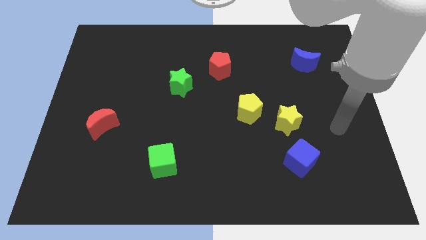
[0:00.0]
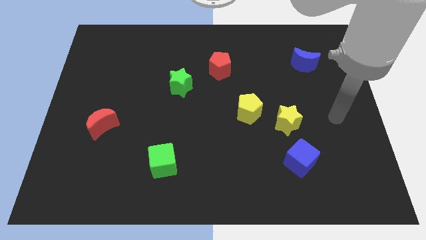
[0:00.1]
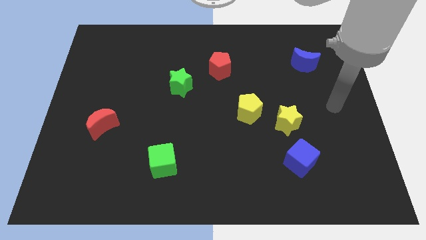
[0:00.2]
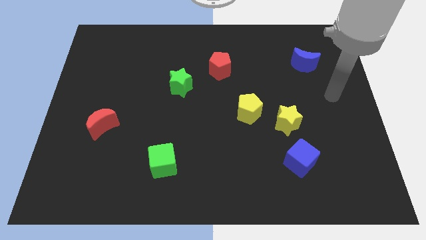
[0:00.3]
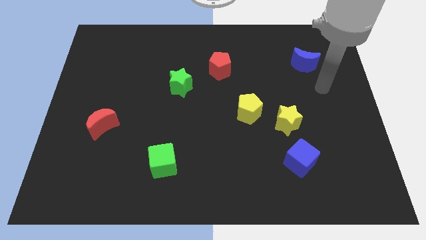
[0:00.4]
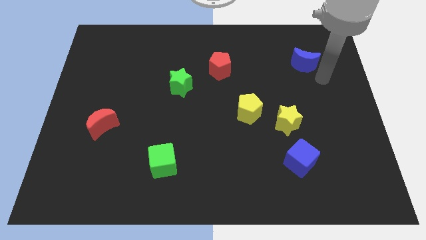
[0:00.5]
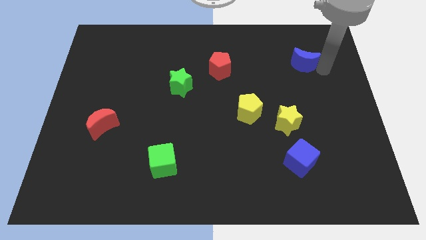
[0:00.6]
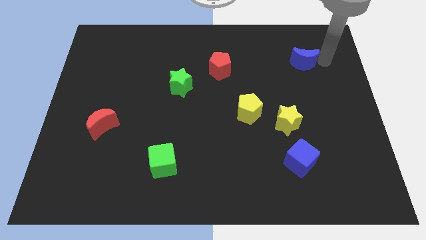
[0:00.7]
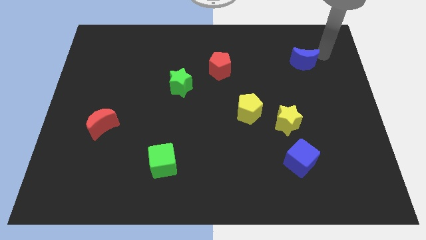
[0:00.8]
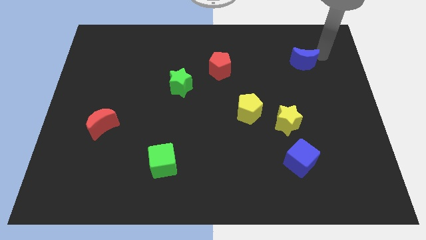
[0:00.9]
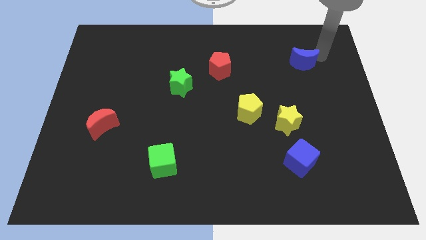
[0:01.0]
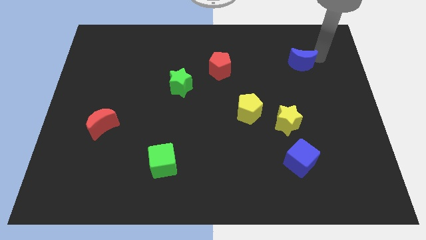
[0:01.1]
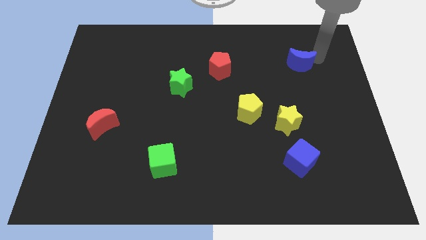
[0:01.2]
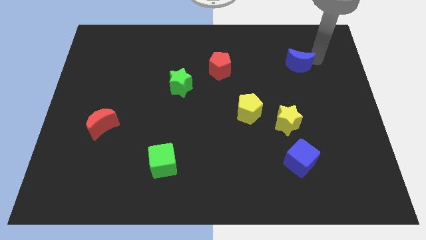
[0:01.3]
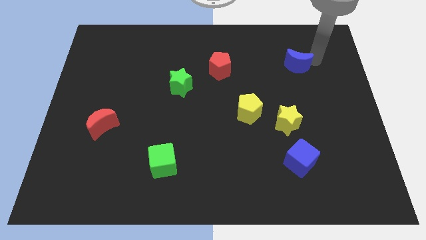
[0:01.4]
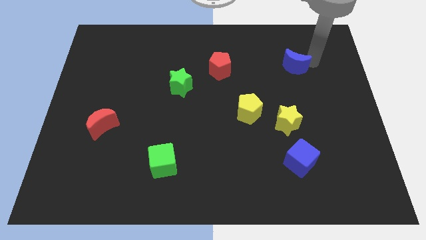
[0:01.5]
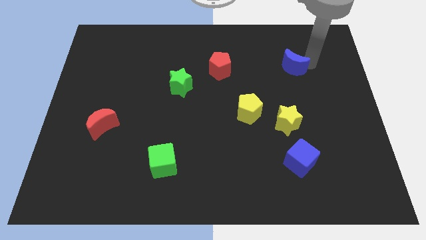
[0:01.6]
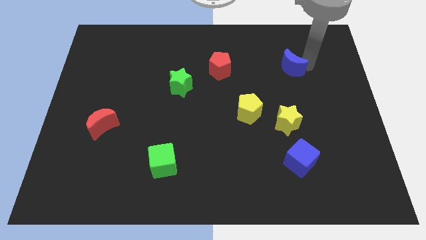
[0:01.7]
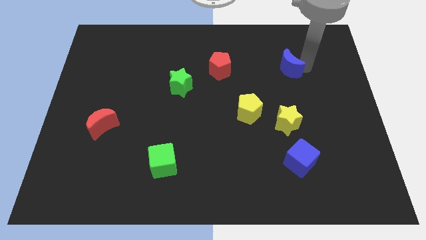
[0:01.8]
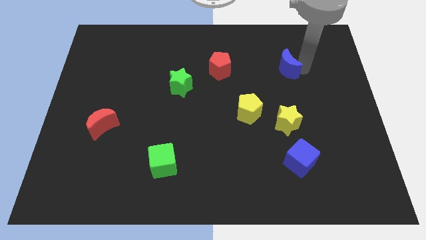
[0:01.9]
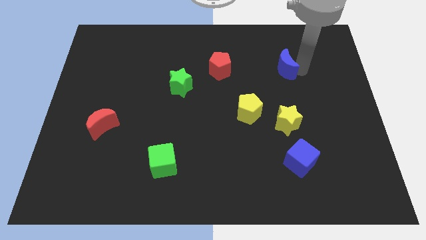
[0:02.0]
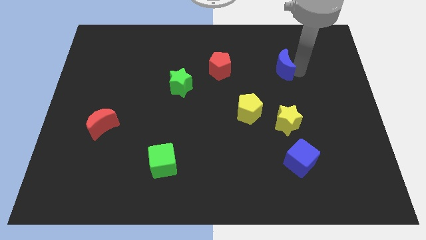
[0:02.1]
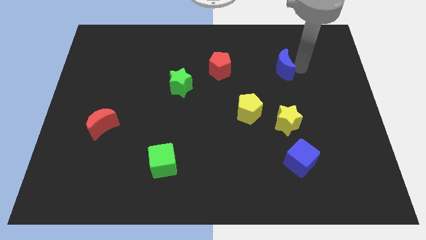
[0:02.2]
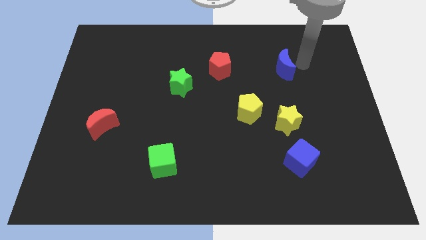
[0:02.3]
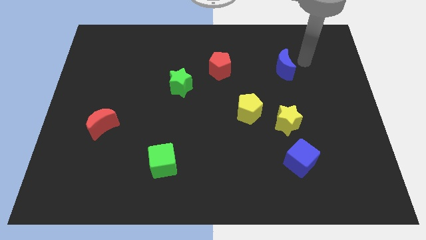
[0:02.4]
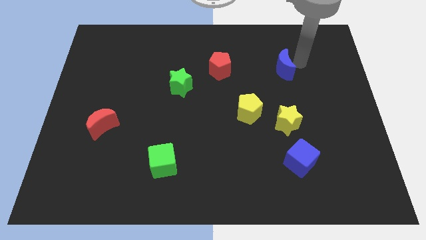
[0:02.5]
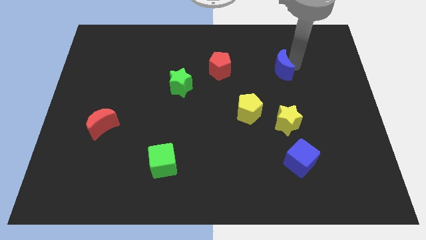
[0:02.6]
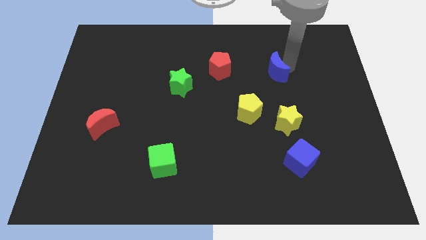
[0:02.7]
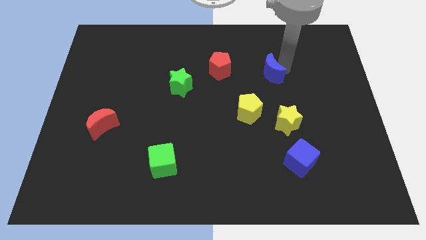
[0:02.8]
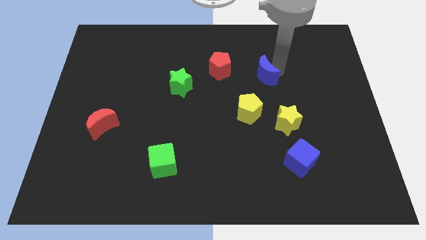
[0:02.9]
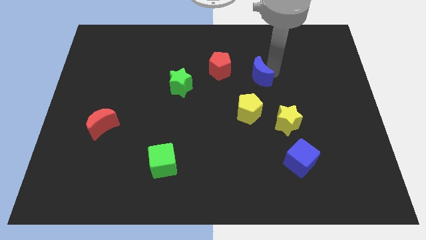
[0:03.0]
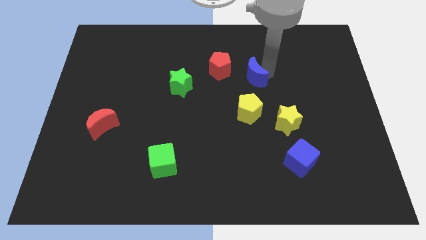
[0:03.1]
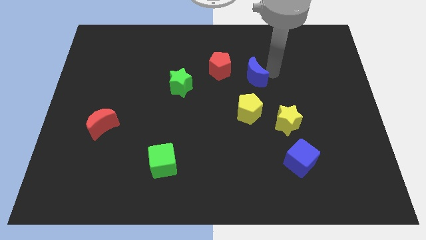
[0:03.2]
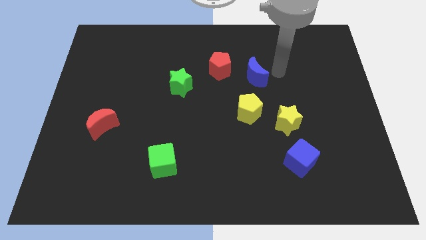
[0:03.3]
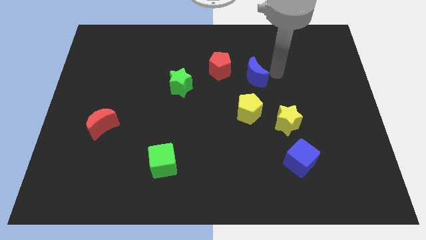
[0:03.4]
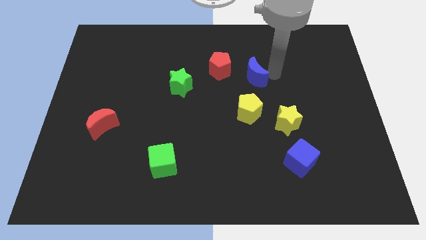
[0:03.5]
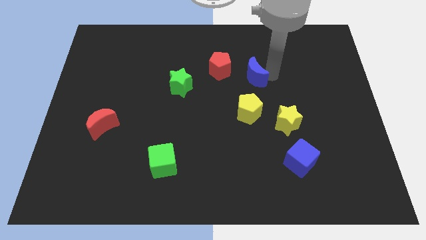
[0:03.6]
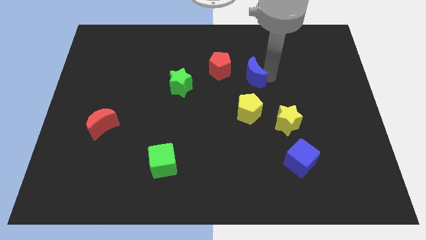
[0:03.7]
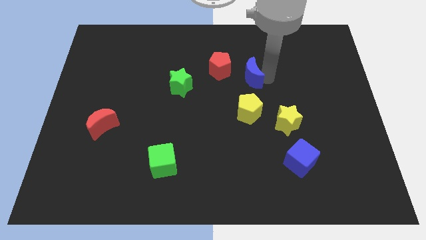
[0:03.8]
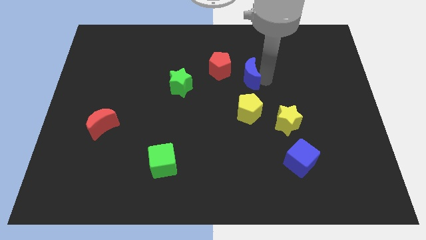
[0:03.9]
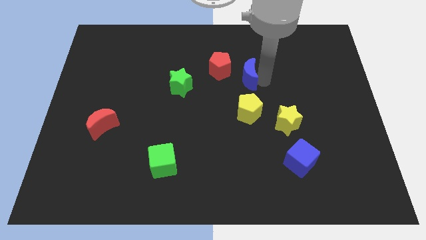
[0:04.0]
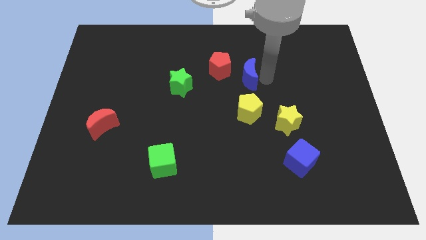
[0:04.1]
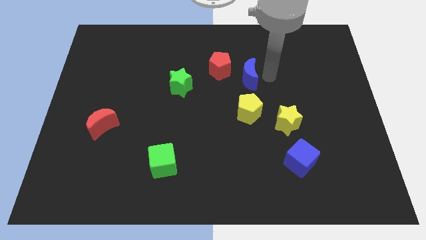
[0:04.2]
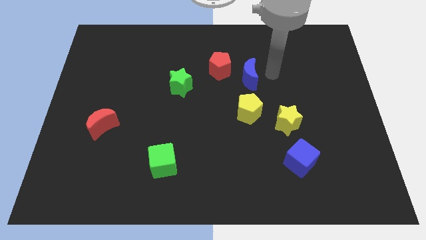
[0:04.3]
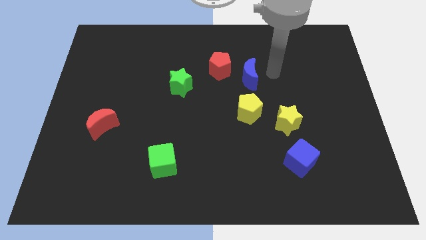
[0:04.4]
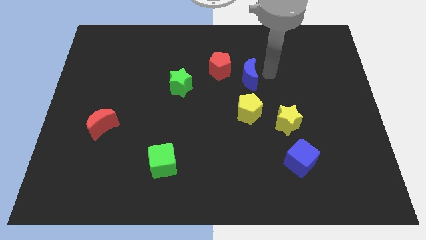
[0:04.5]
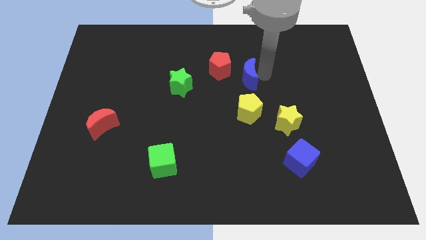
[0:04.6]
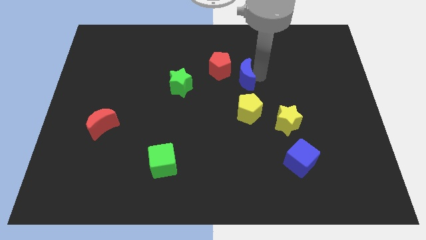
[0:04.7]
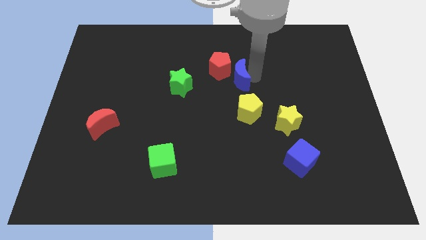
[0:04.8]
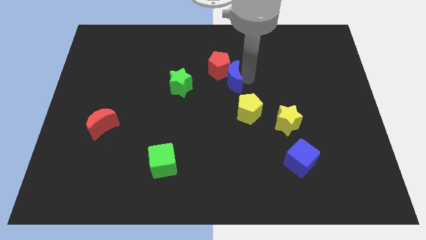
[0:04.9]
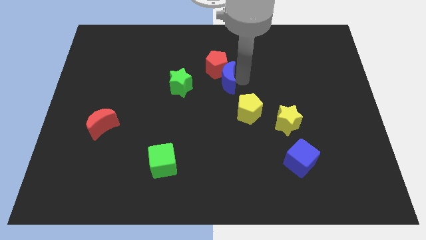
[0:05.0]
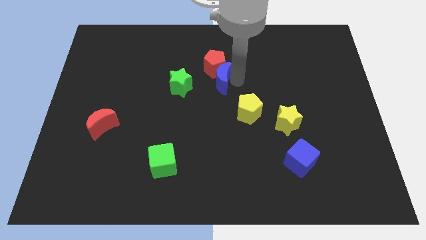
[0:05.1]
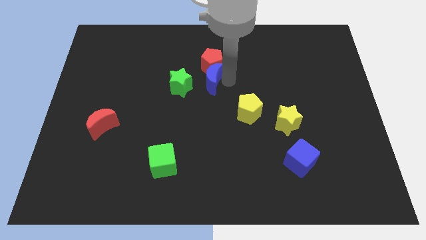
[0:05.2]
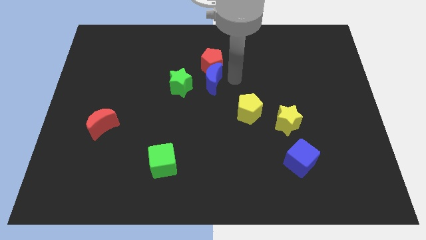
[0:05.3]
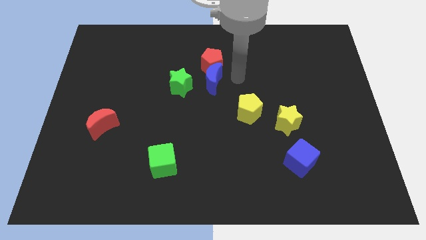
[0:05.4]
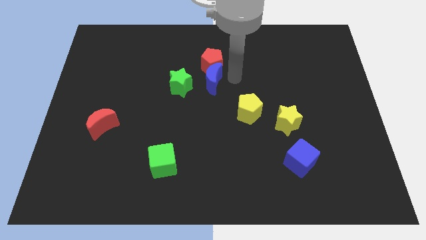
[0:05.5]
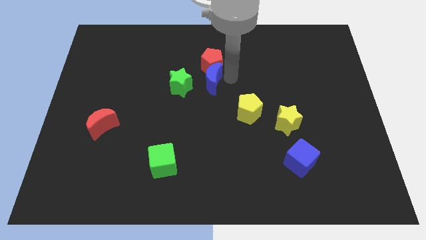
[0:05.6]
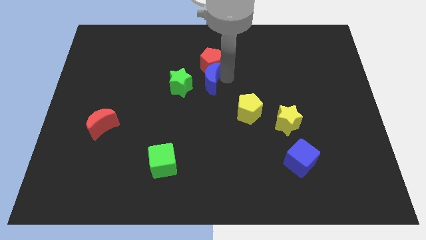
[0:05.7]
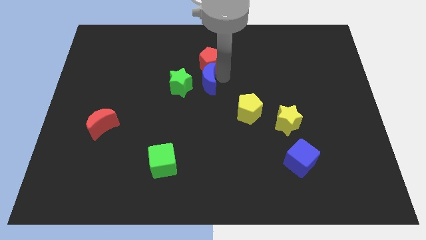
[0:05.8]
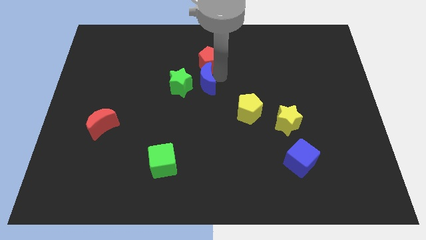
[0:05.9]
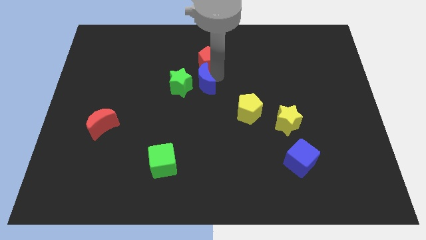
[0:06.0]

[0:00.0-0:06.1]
put the blue moon to the green star

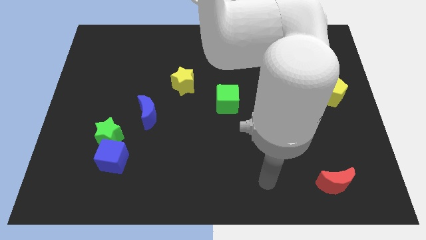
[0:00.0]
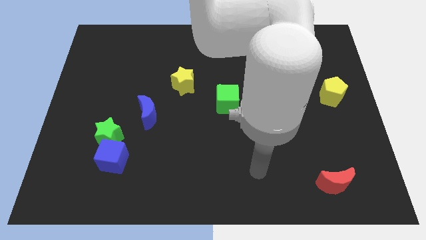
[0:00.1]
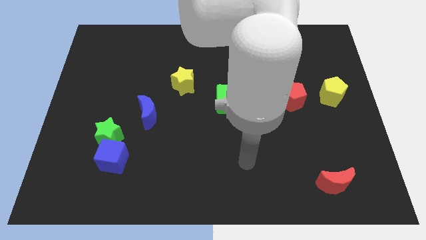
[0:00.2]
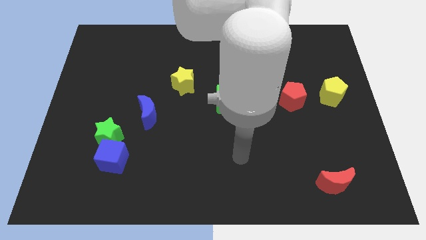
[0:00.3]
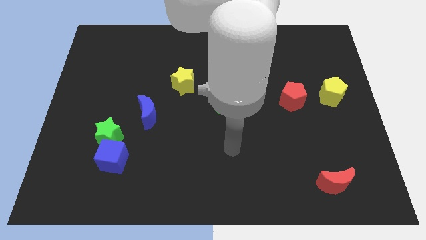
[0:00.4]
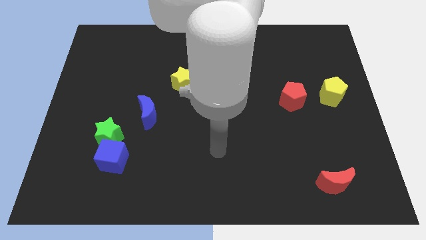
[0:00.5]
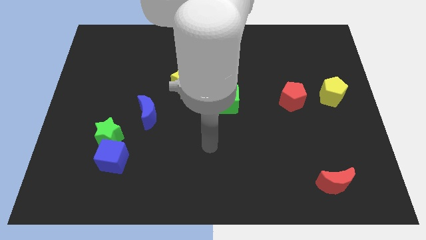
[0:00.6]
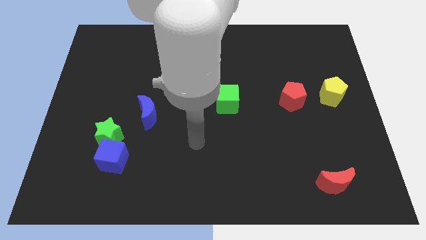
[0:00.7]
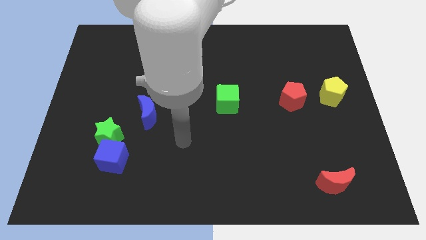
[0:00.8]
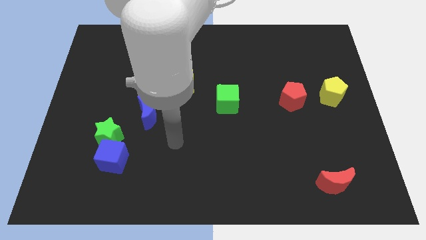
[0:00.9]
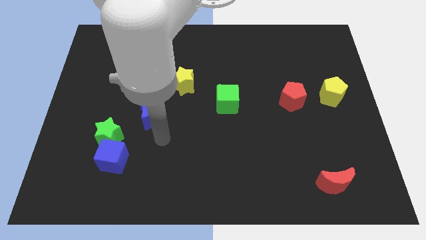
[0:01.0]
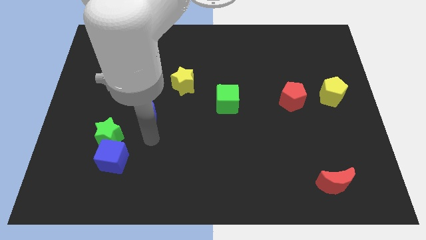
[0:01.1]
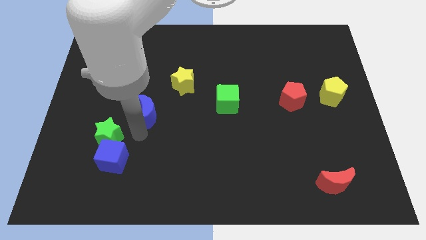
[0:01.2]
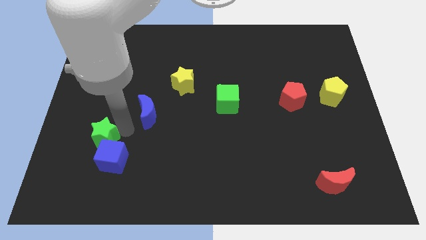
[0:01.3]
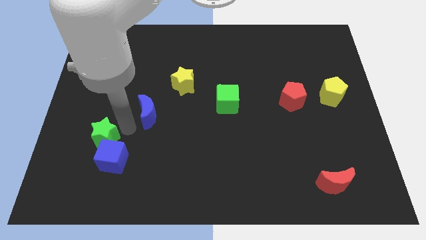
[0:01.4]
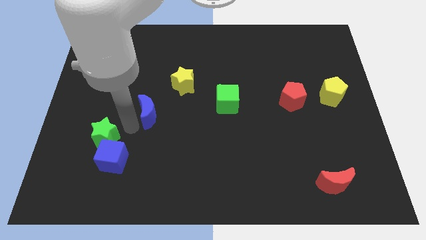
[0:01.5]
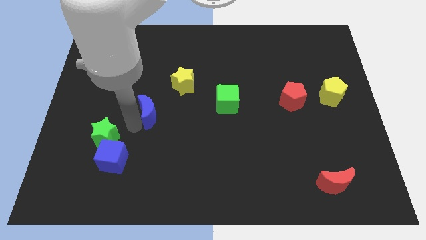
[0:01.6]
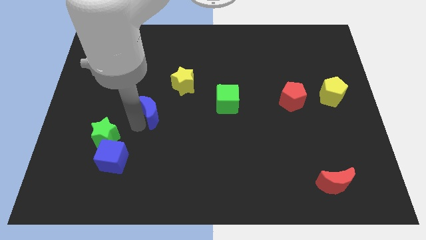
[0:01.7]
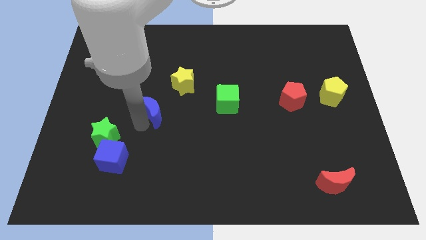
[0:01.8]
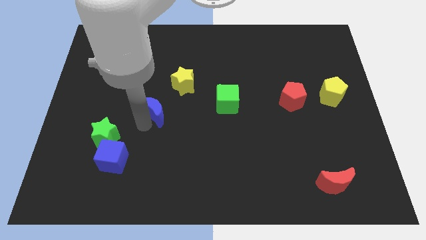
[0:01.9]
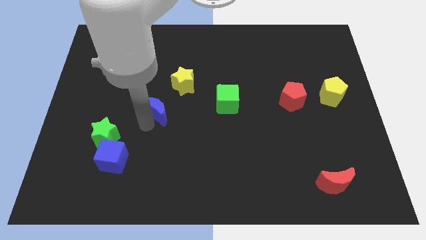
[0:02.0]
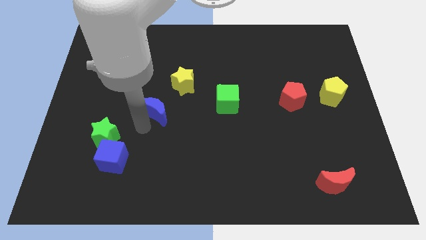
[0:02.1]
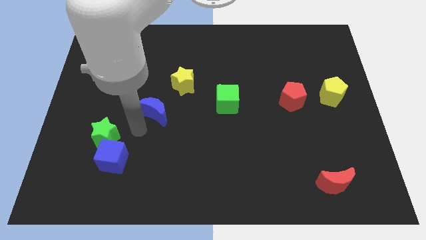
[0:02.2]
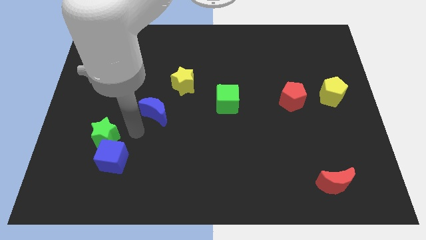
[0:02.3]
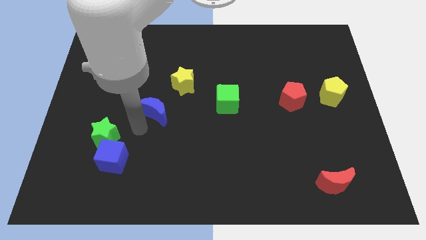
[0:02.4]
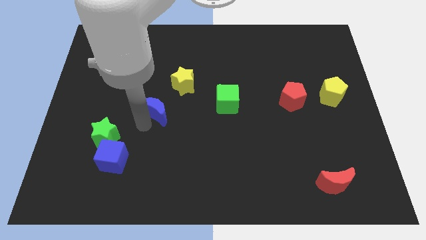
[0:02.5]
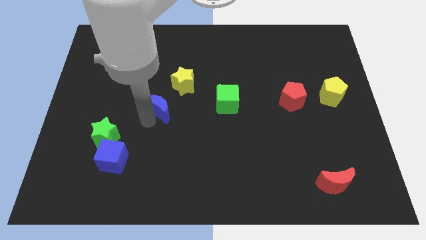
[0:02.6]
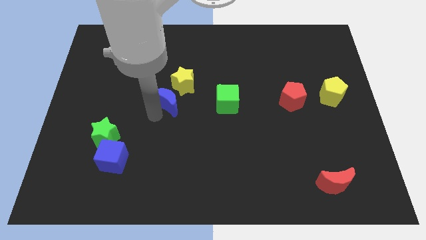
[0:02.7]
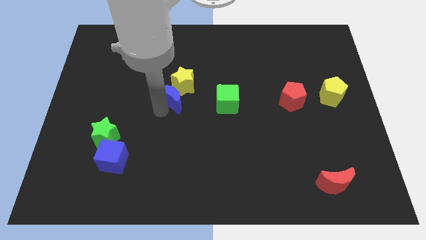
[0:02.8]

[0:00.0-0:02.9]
move the blue moon to the yellow star
